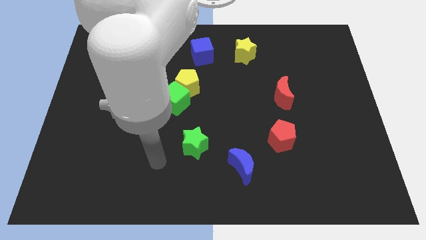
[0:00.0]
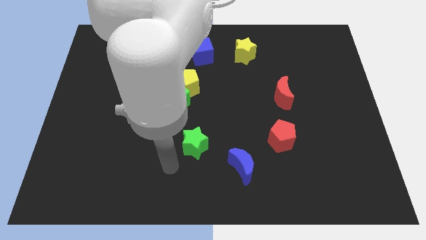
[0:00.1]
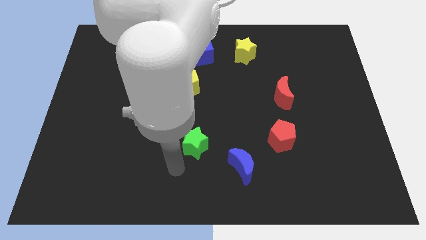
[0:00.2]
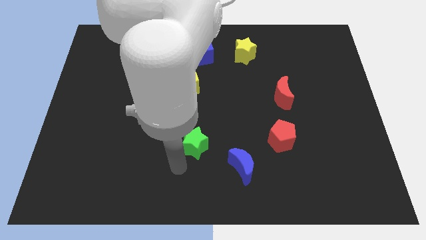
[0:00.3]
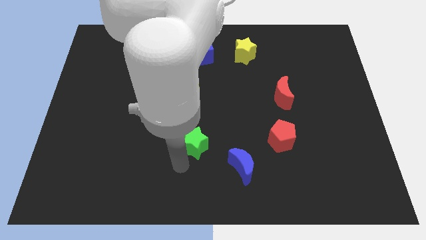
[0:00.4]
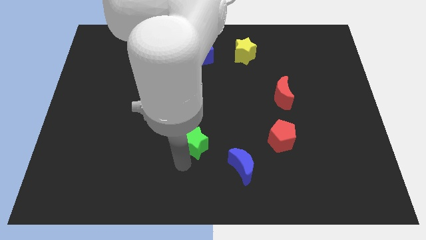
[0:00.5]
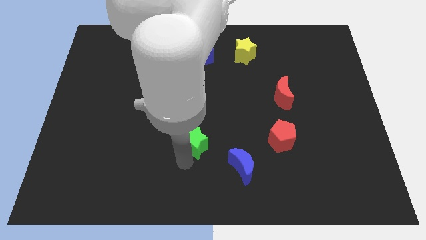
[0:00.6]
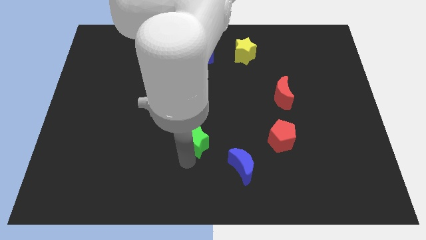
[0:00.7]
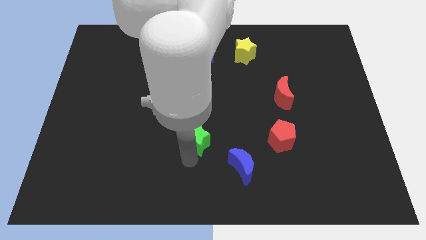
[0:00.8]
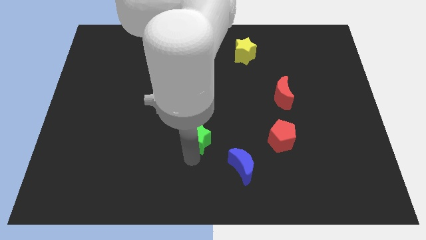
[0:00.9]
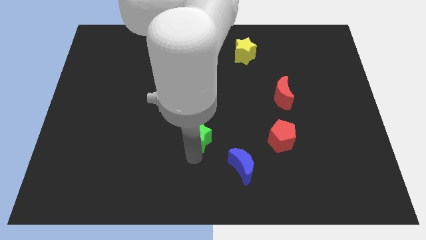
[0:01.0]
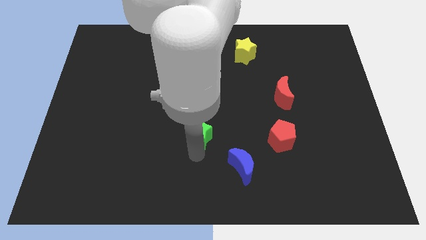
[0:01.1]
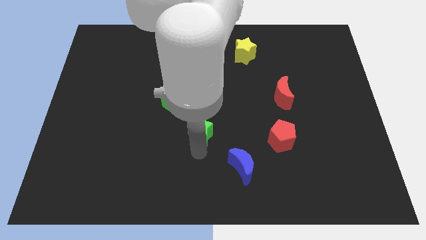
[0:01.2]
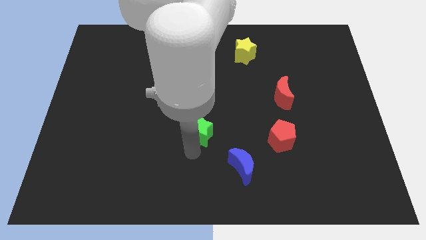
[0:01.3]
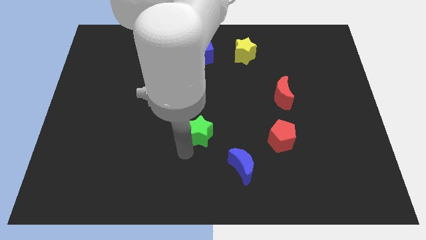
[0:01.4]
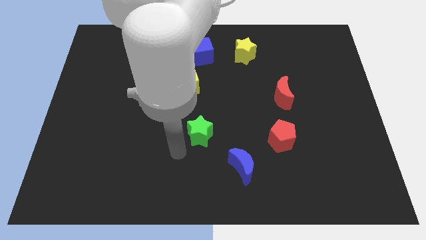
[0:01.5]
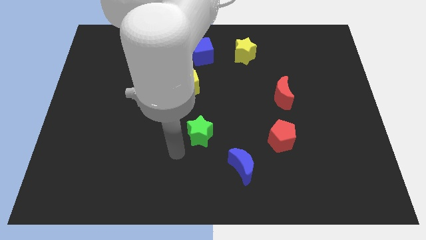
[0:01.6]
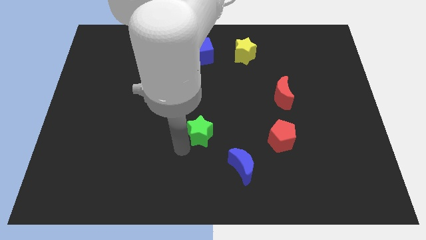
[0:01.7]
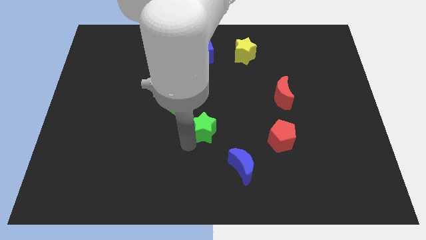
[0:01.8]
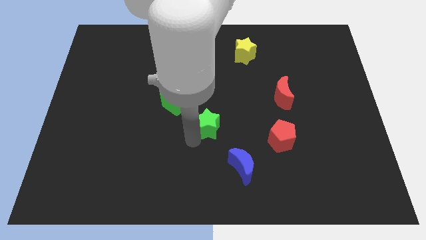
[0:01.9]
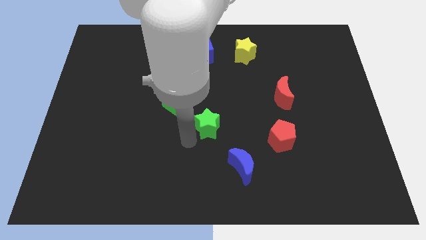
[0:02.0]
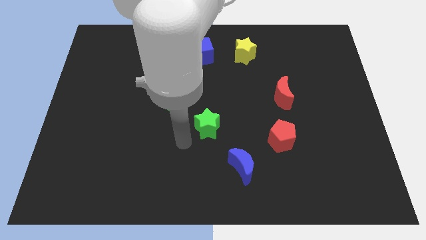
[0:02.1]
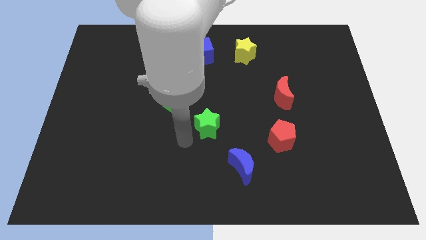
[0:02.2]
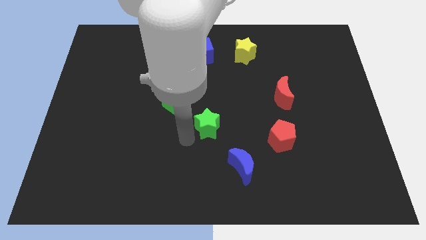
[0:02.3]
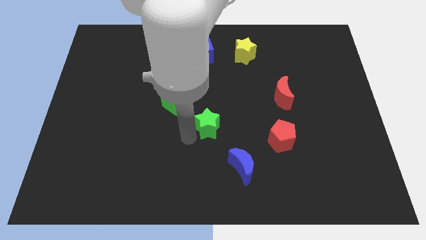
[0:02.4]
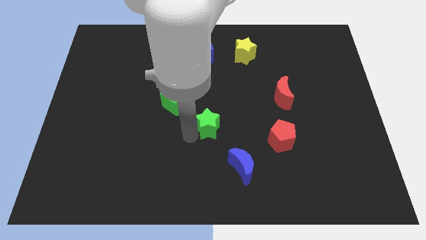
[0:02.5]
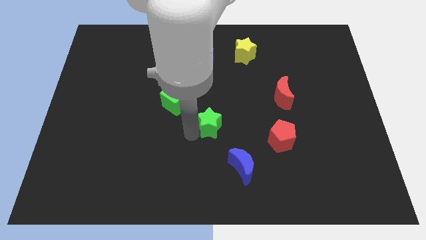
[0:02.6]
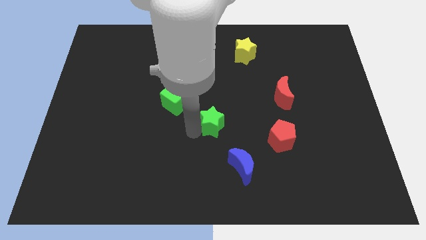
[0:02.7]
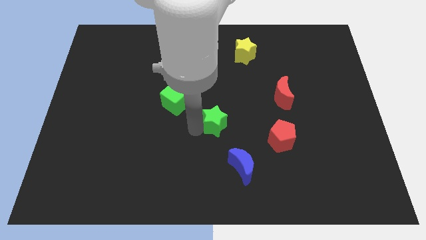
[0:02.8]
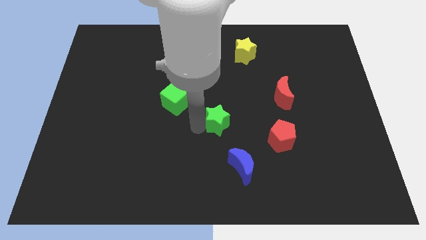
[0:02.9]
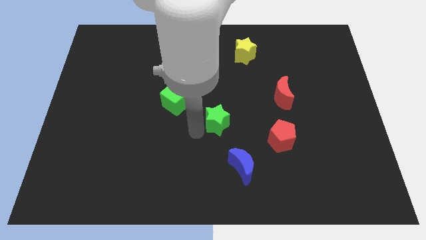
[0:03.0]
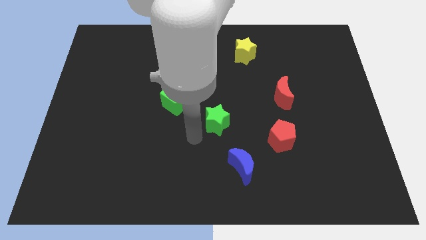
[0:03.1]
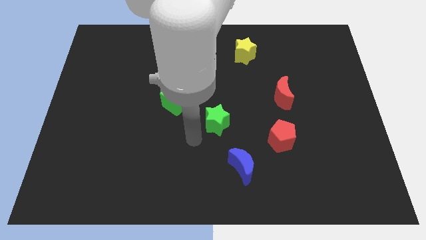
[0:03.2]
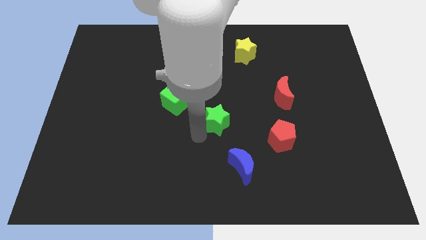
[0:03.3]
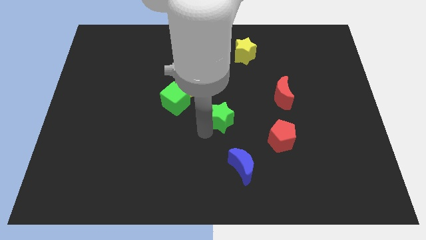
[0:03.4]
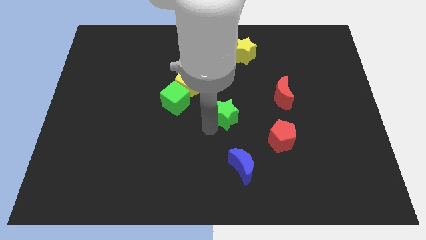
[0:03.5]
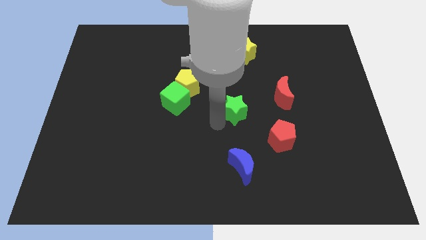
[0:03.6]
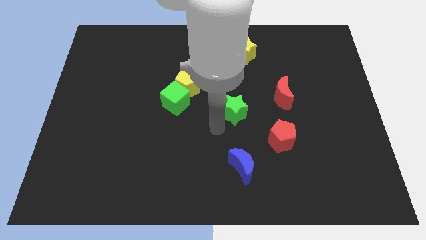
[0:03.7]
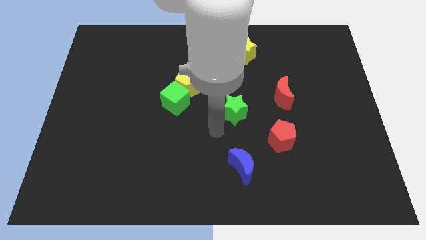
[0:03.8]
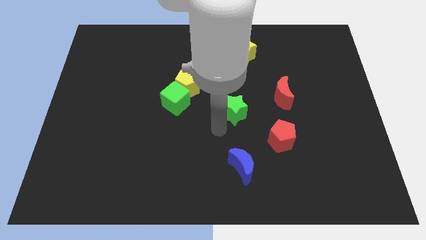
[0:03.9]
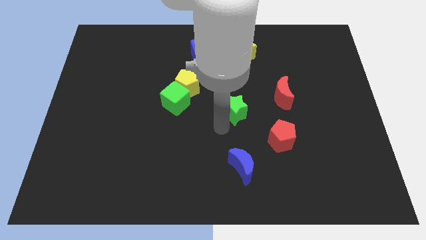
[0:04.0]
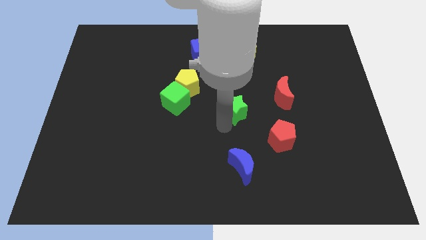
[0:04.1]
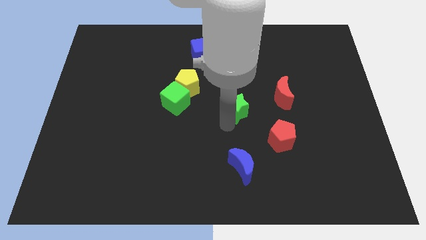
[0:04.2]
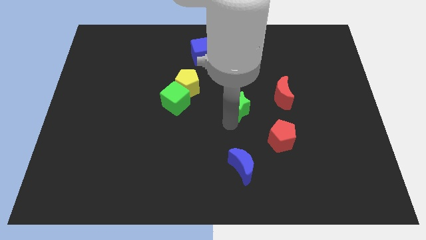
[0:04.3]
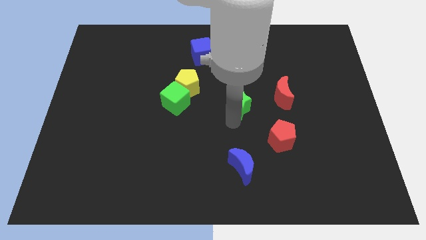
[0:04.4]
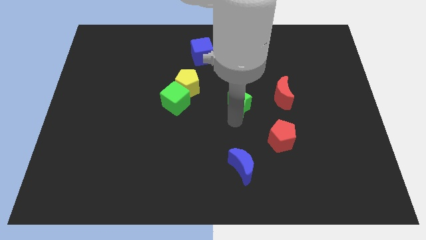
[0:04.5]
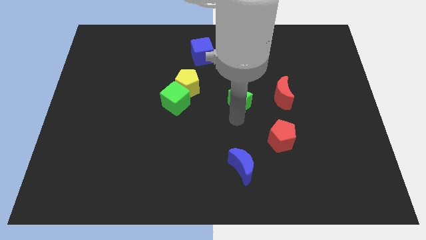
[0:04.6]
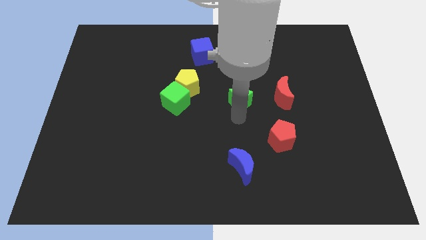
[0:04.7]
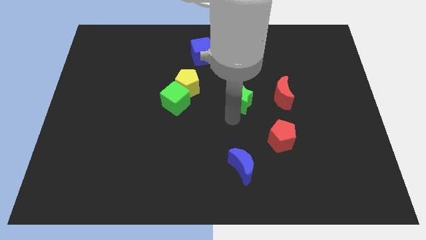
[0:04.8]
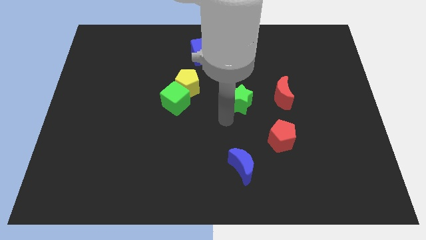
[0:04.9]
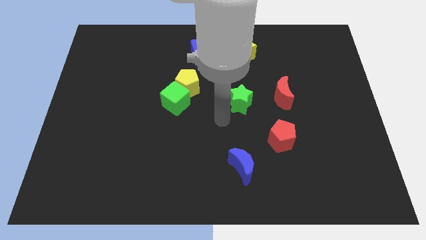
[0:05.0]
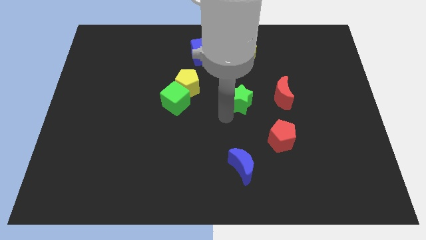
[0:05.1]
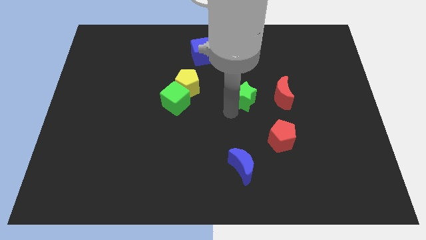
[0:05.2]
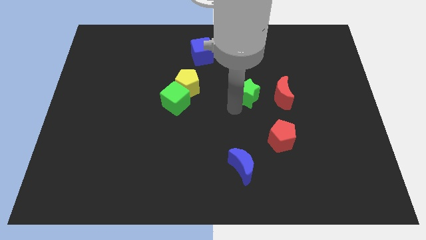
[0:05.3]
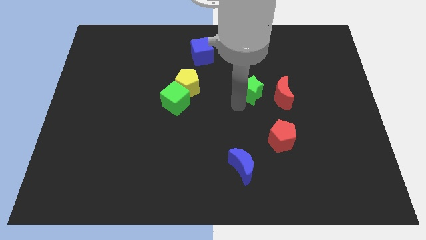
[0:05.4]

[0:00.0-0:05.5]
move the green star up and right

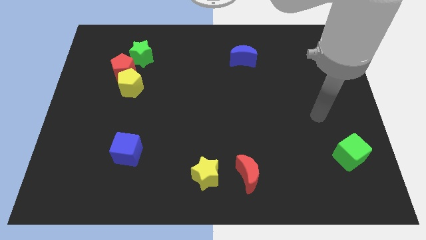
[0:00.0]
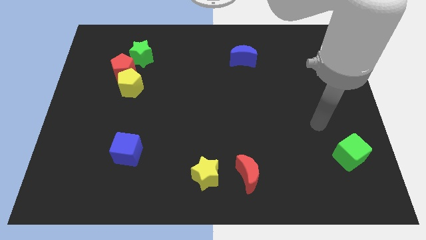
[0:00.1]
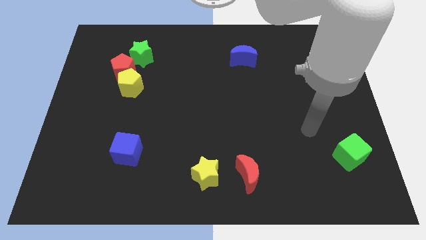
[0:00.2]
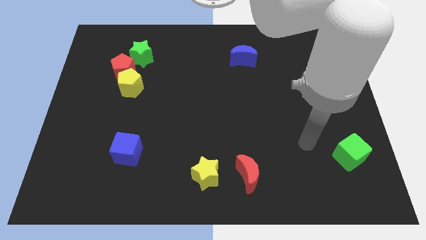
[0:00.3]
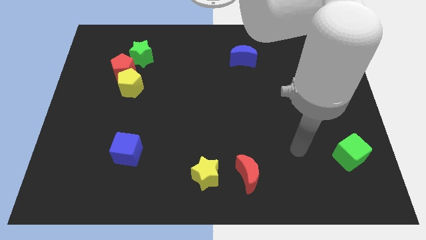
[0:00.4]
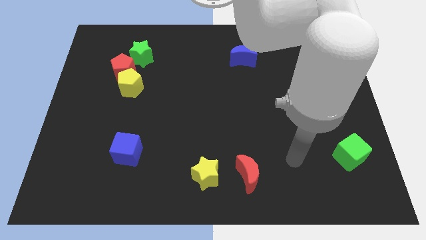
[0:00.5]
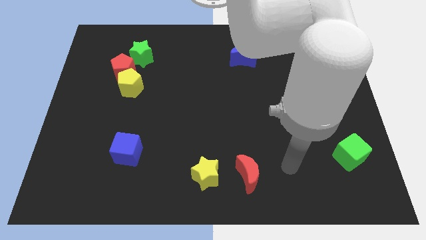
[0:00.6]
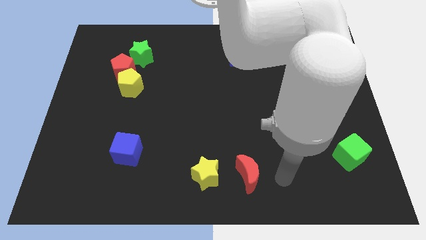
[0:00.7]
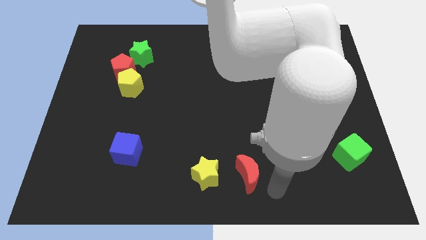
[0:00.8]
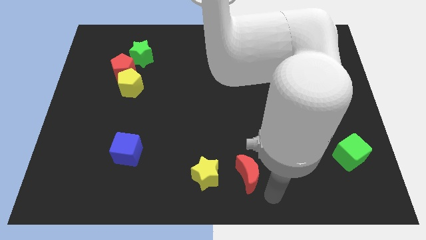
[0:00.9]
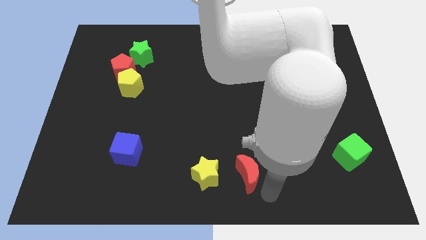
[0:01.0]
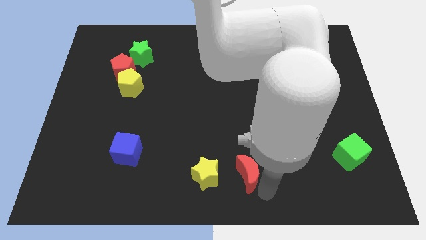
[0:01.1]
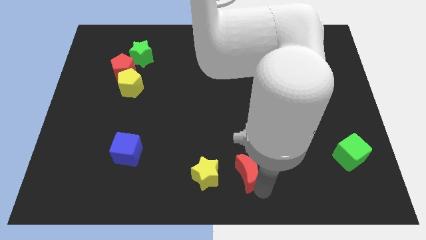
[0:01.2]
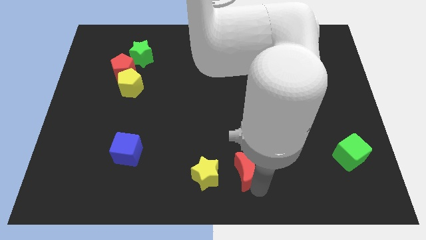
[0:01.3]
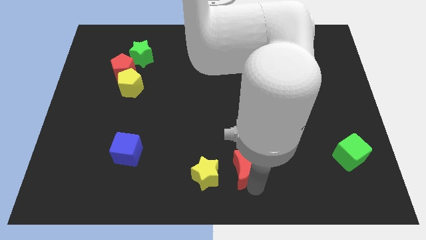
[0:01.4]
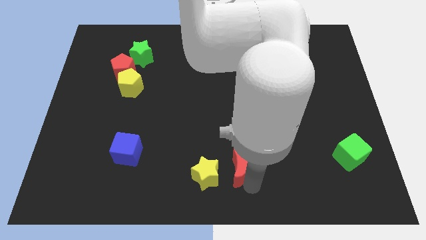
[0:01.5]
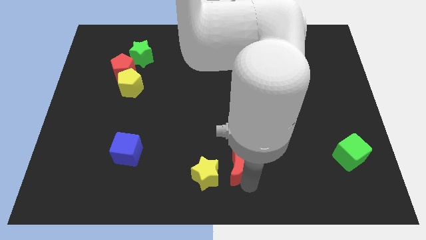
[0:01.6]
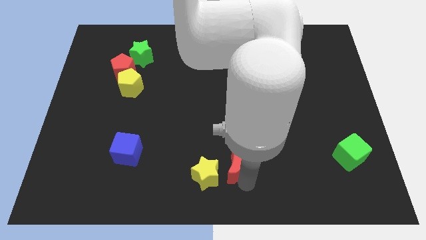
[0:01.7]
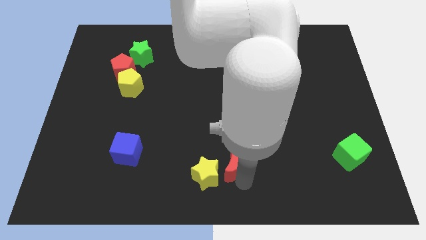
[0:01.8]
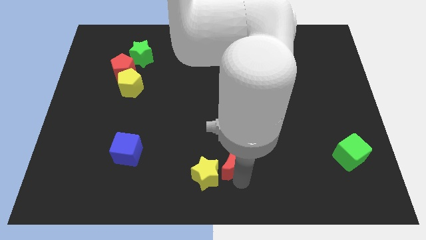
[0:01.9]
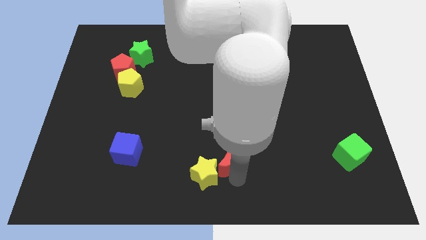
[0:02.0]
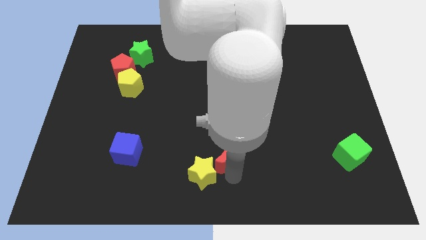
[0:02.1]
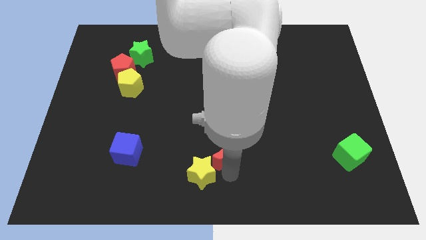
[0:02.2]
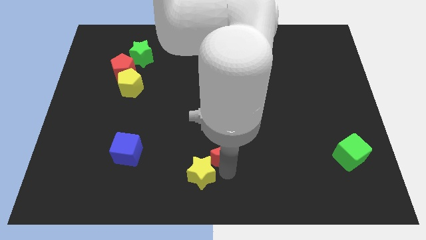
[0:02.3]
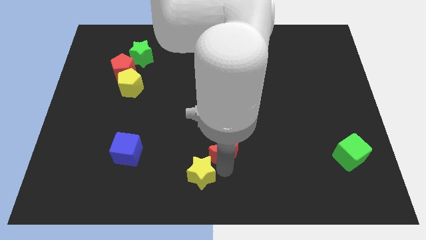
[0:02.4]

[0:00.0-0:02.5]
move the red moon diagonally upwards and to the left a little bit

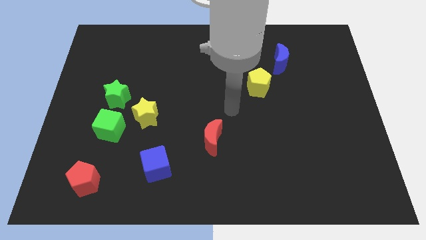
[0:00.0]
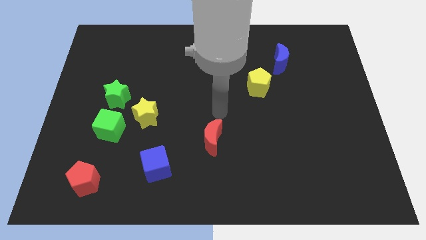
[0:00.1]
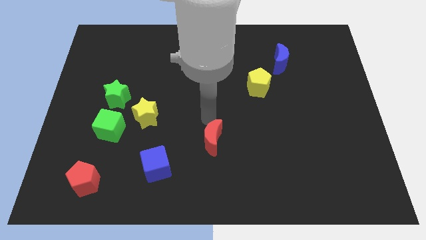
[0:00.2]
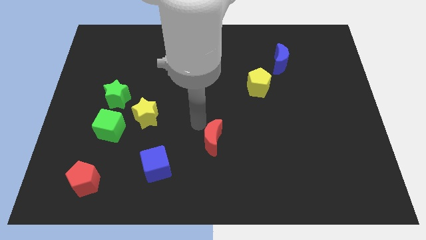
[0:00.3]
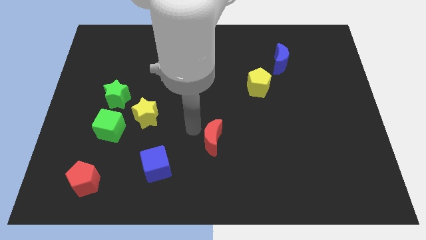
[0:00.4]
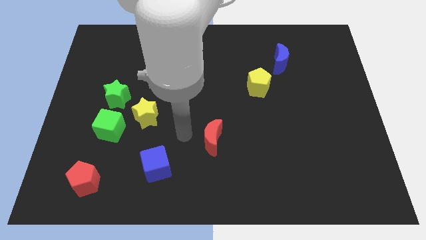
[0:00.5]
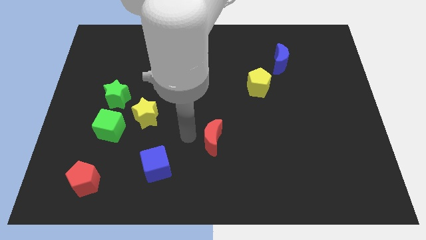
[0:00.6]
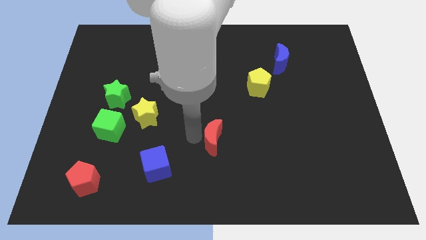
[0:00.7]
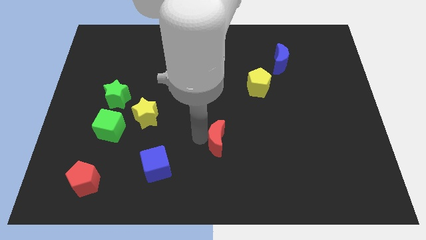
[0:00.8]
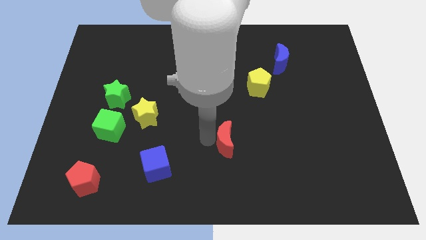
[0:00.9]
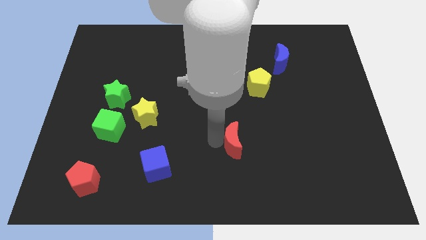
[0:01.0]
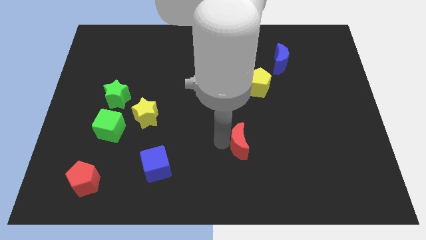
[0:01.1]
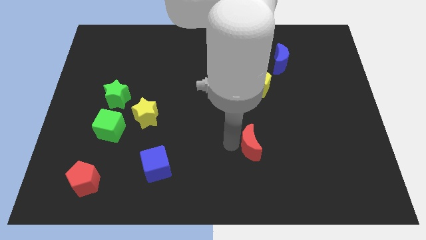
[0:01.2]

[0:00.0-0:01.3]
push the red moon to the right a bit
